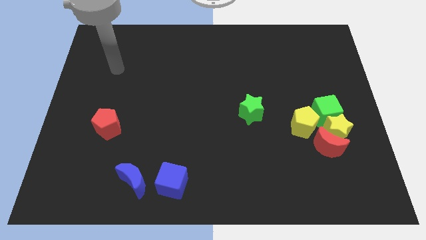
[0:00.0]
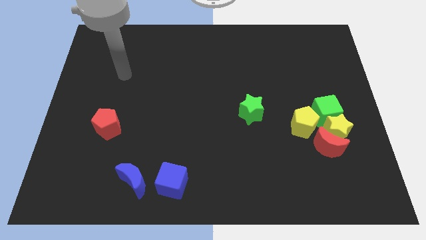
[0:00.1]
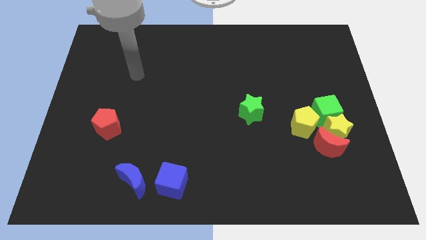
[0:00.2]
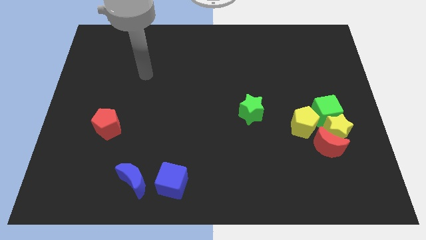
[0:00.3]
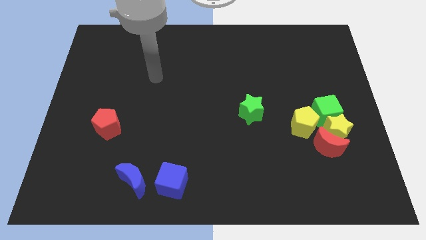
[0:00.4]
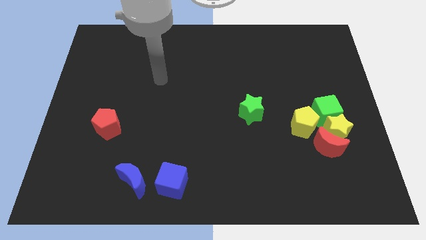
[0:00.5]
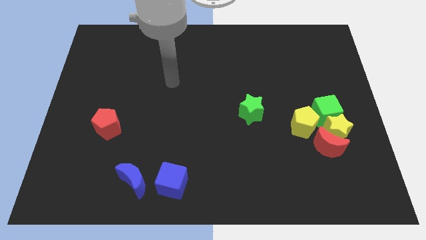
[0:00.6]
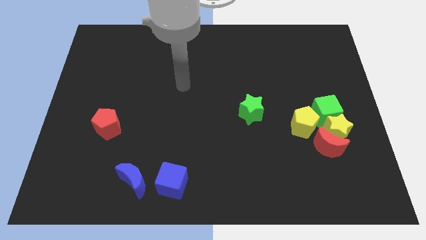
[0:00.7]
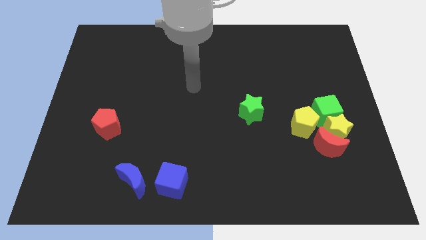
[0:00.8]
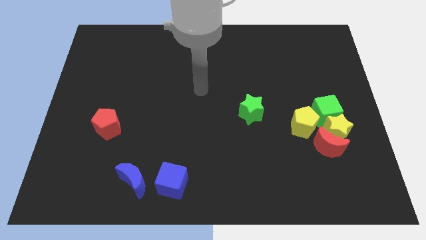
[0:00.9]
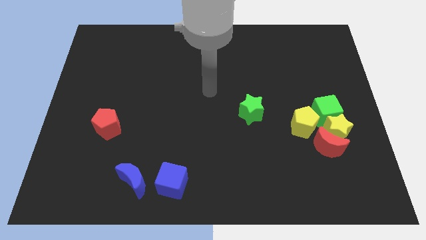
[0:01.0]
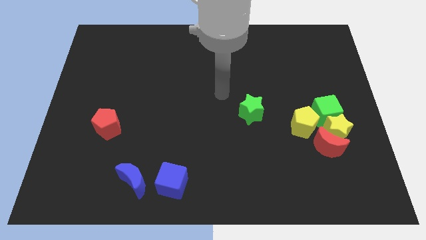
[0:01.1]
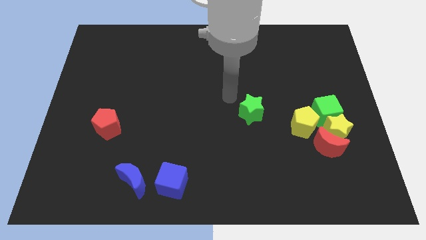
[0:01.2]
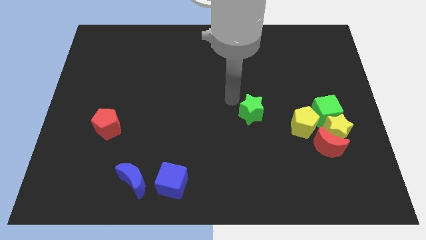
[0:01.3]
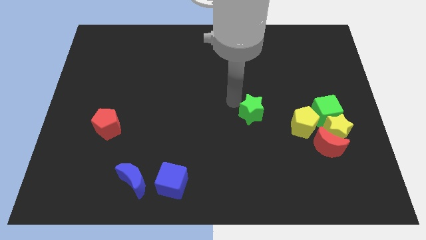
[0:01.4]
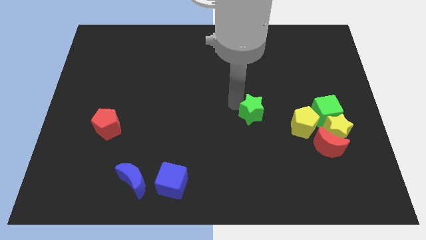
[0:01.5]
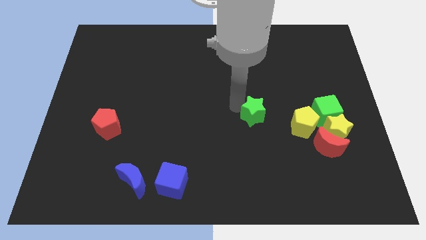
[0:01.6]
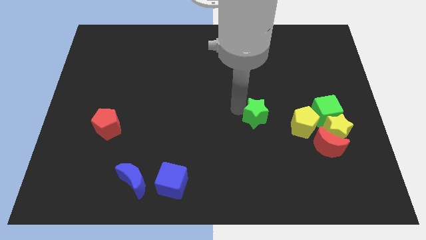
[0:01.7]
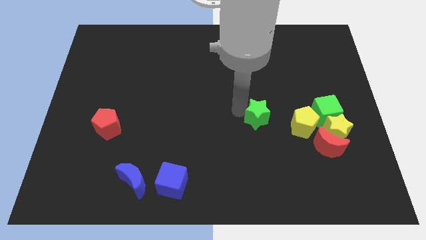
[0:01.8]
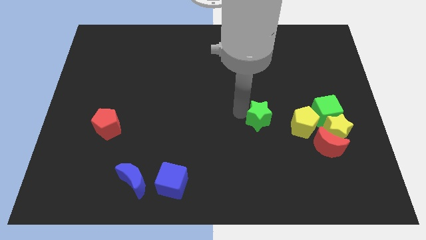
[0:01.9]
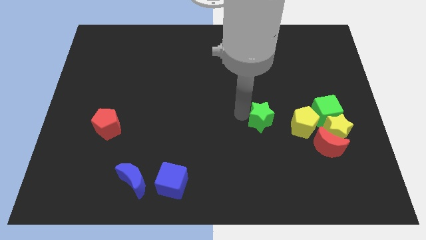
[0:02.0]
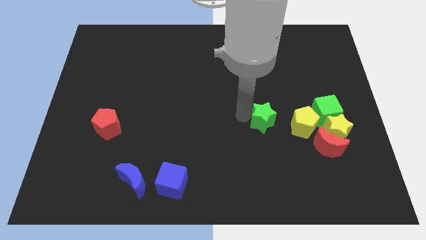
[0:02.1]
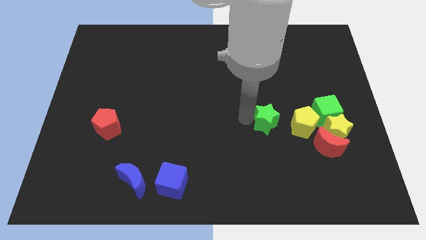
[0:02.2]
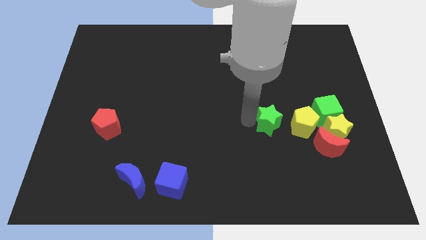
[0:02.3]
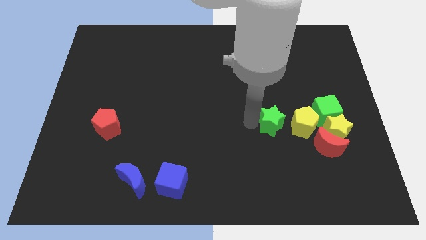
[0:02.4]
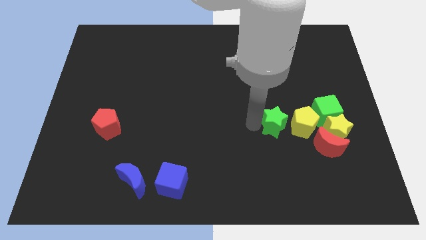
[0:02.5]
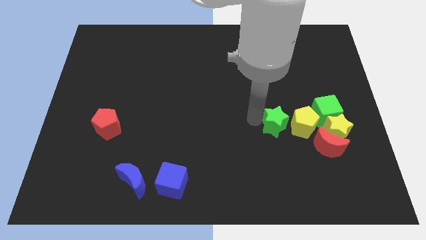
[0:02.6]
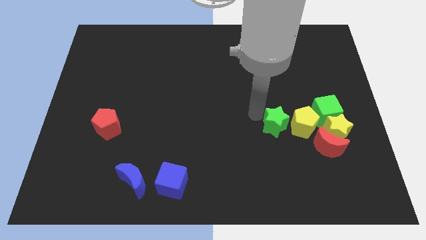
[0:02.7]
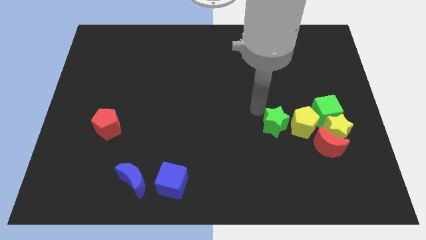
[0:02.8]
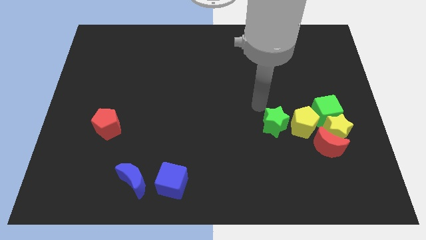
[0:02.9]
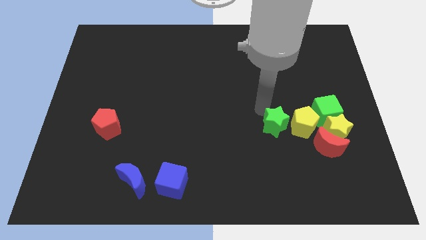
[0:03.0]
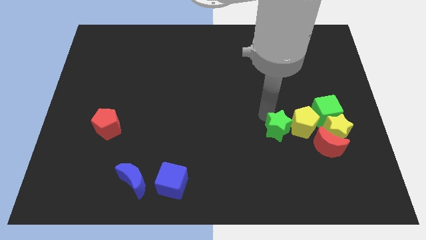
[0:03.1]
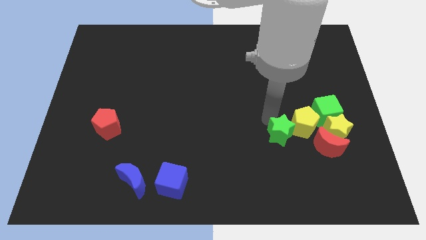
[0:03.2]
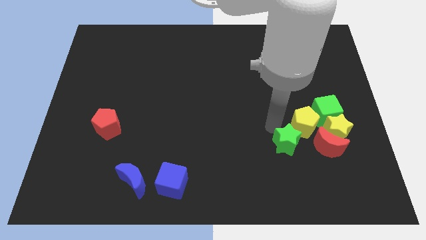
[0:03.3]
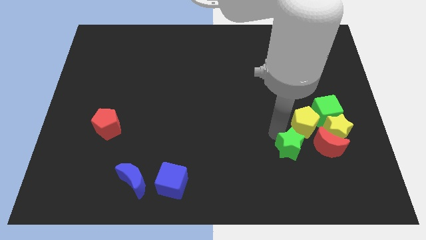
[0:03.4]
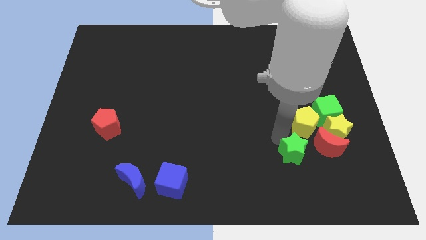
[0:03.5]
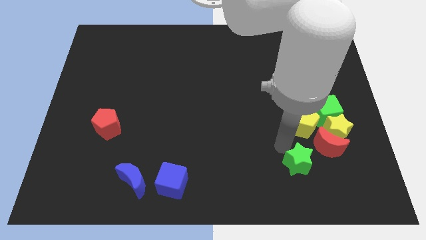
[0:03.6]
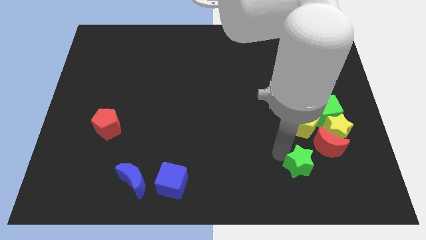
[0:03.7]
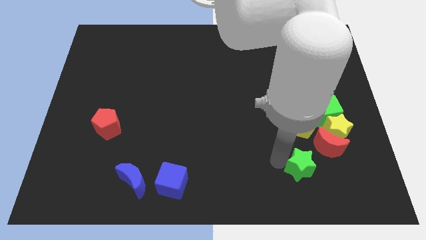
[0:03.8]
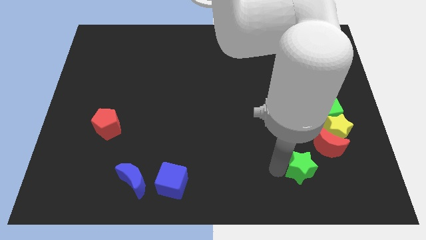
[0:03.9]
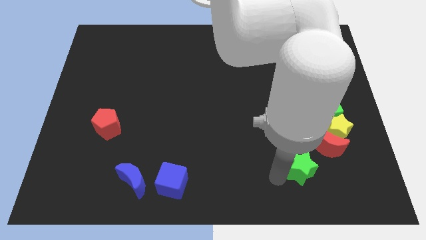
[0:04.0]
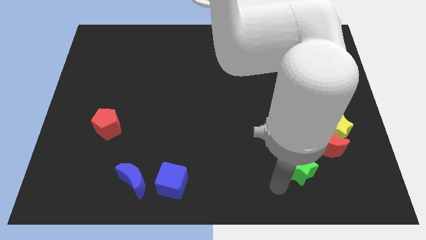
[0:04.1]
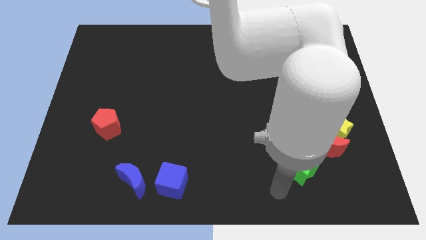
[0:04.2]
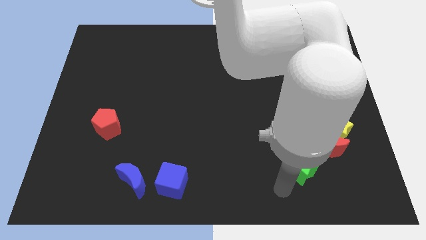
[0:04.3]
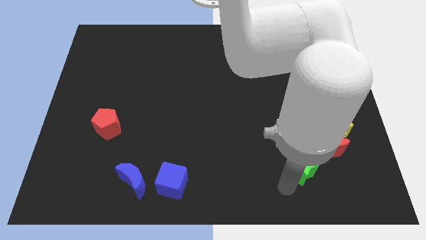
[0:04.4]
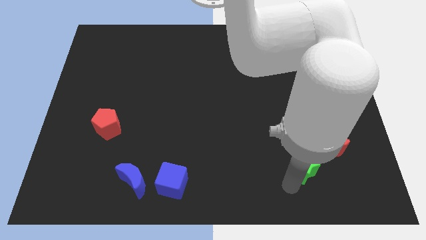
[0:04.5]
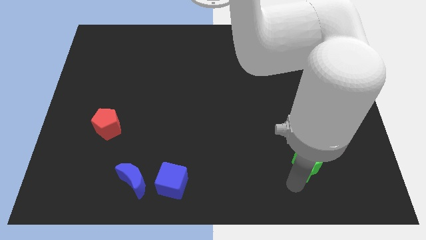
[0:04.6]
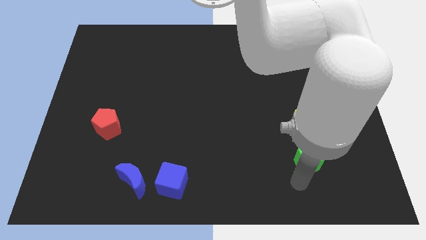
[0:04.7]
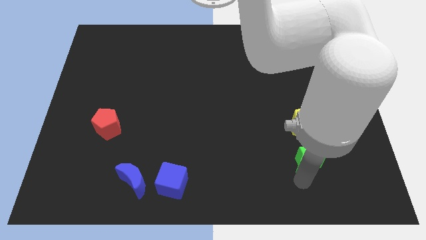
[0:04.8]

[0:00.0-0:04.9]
slide the green star to the red moon

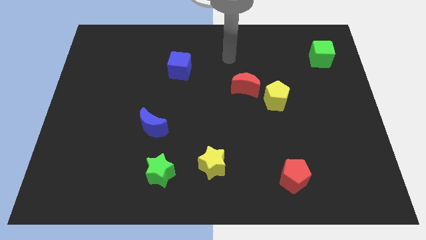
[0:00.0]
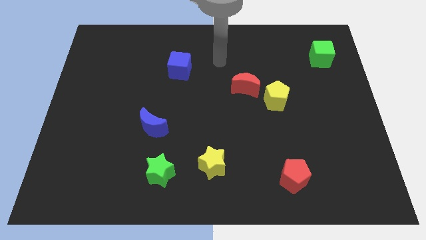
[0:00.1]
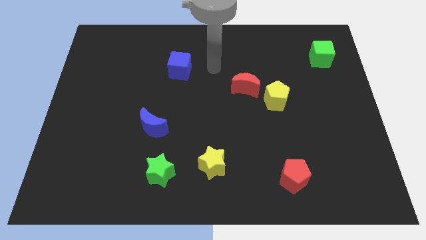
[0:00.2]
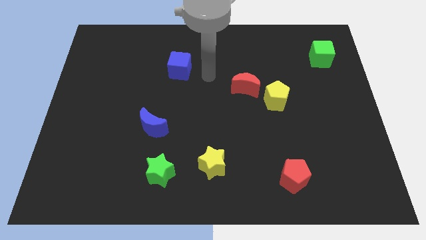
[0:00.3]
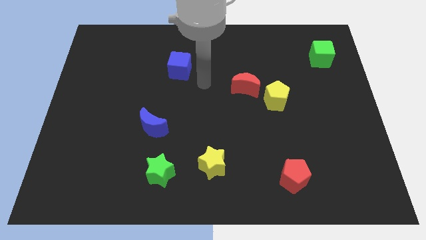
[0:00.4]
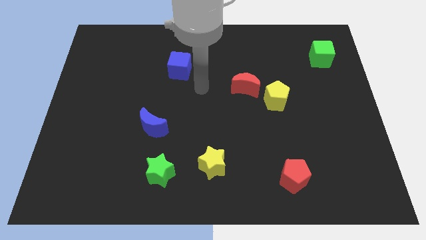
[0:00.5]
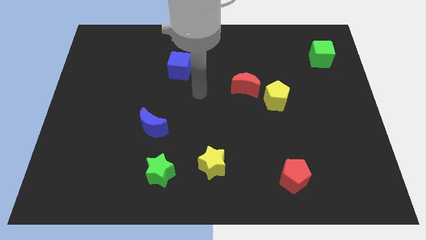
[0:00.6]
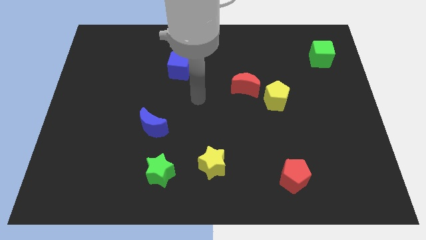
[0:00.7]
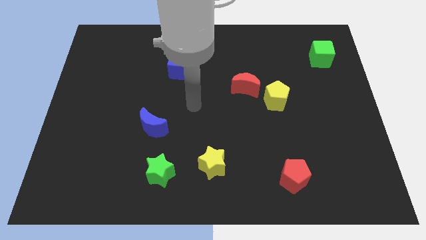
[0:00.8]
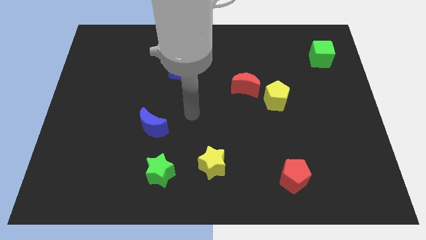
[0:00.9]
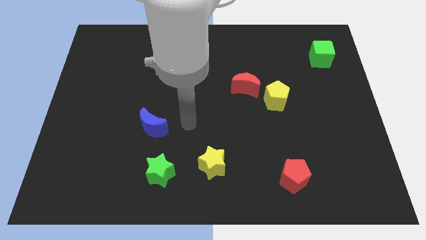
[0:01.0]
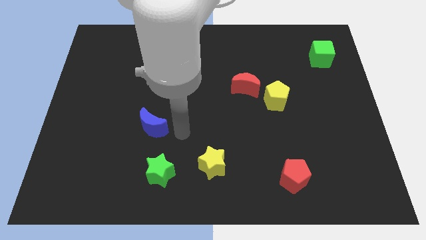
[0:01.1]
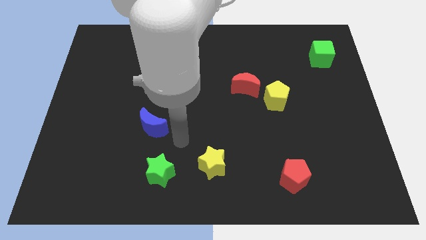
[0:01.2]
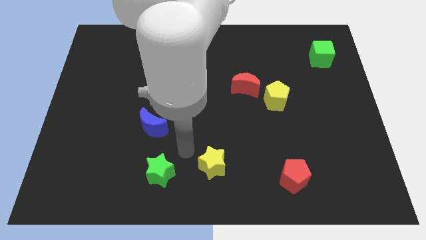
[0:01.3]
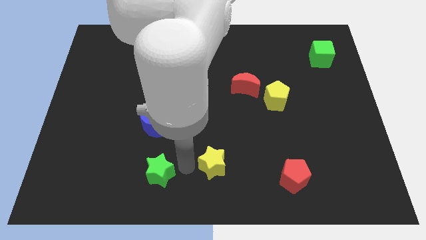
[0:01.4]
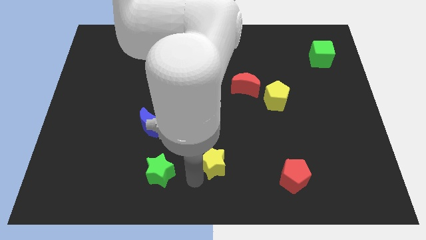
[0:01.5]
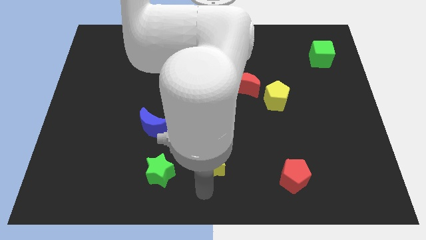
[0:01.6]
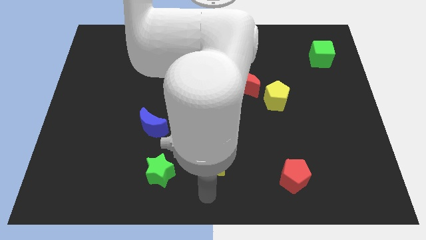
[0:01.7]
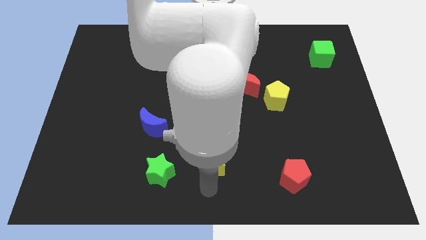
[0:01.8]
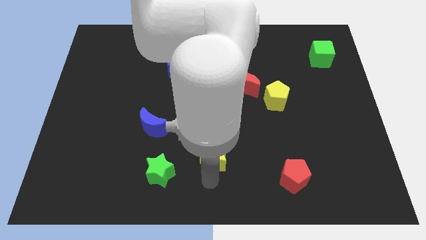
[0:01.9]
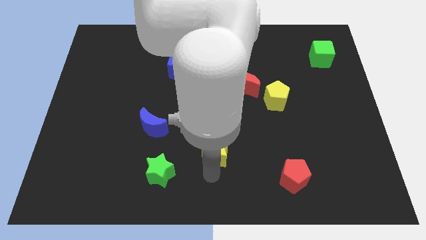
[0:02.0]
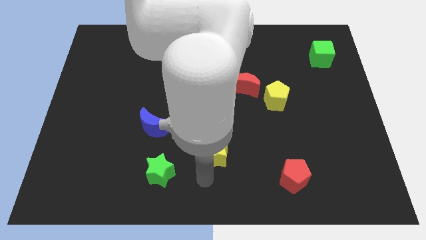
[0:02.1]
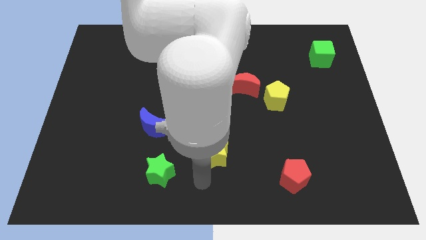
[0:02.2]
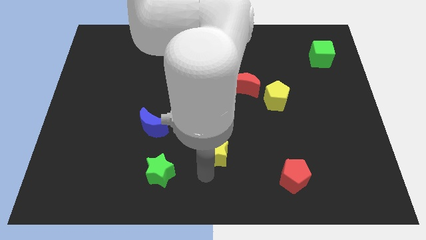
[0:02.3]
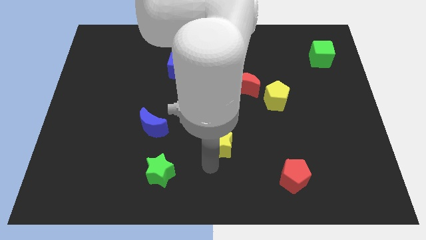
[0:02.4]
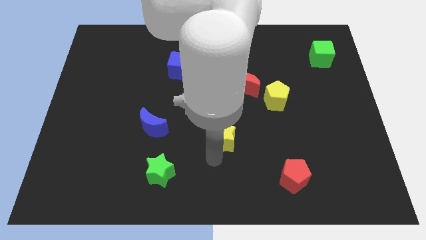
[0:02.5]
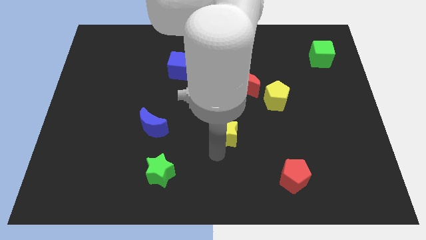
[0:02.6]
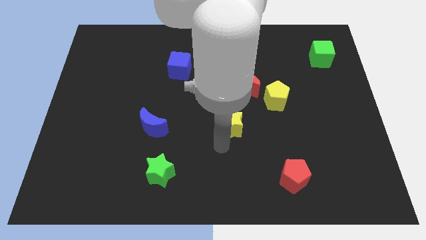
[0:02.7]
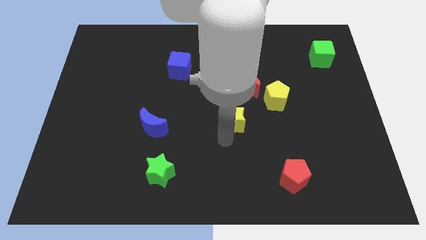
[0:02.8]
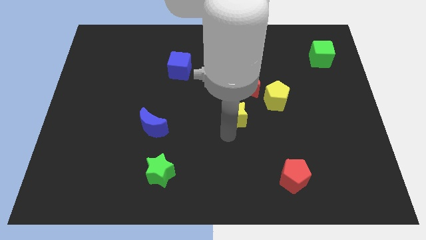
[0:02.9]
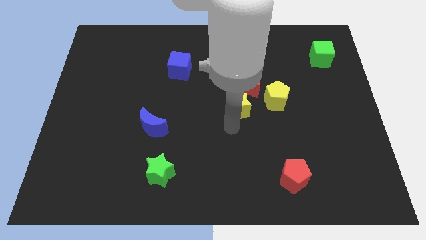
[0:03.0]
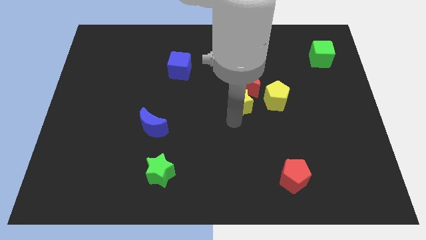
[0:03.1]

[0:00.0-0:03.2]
slide the yellow star to the red moon
